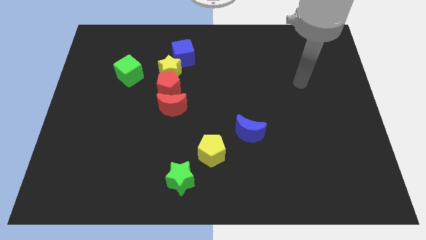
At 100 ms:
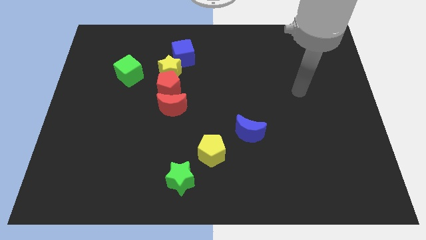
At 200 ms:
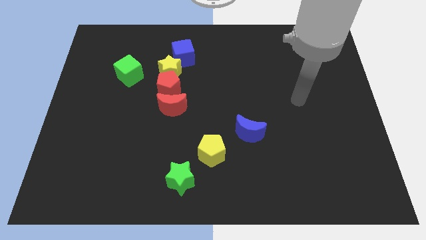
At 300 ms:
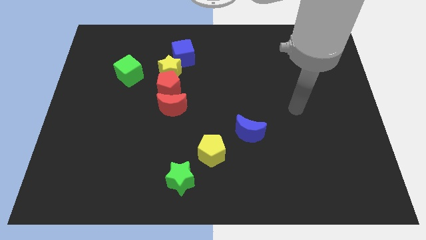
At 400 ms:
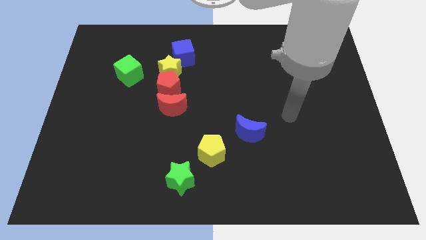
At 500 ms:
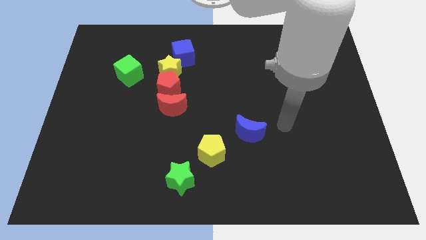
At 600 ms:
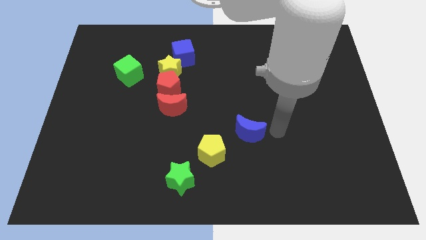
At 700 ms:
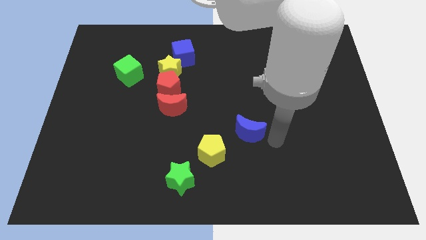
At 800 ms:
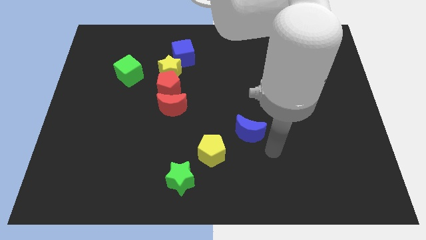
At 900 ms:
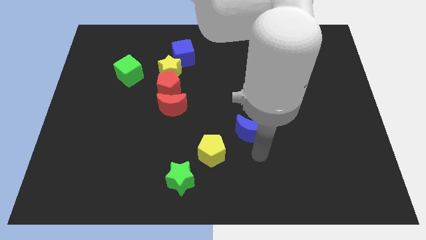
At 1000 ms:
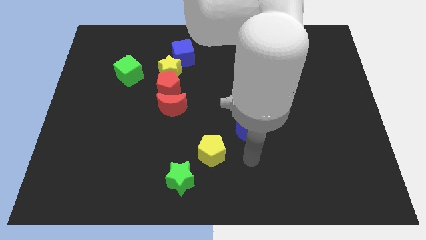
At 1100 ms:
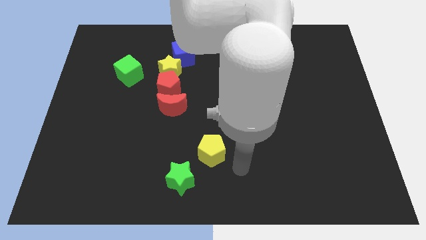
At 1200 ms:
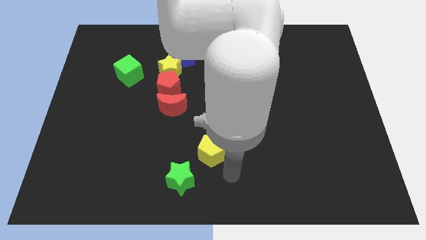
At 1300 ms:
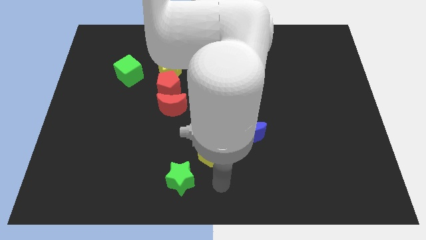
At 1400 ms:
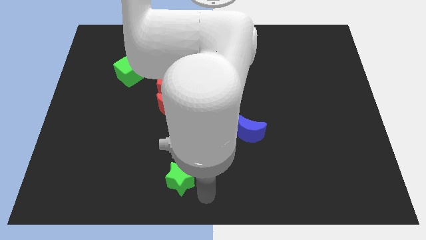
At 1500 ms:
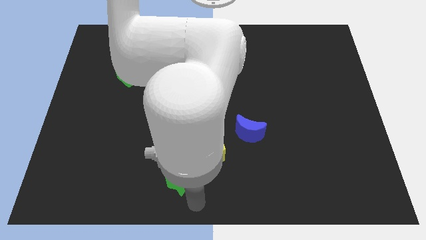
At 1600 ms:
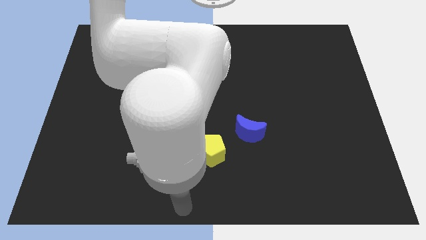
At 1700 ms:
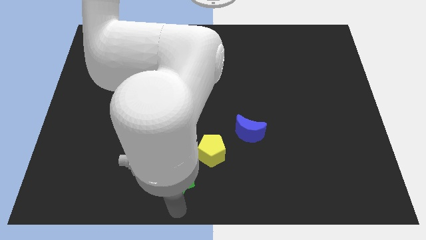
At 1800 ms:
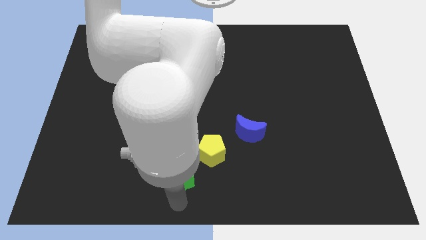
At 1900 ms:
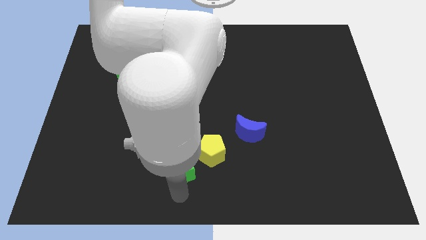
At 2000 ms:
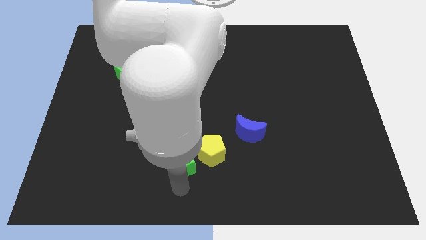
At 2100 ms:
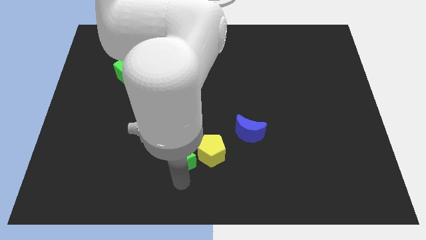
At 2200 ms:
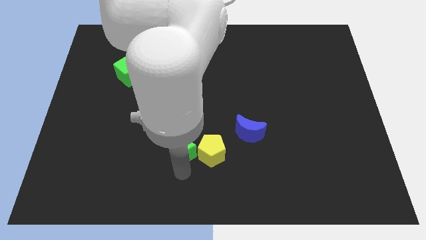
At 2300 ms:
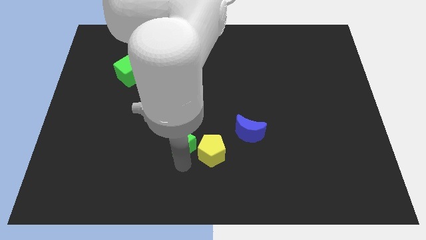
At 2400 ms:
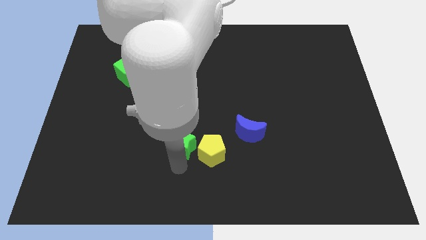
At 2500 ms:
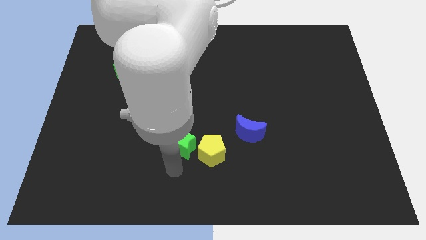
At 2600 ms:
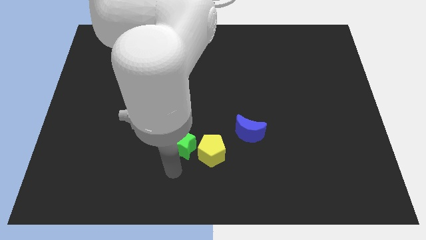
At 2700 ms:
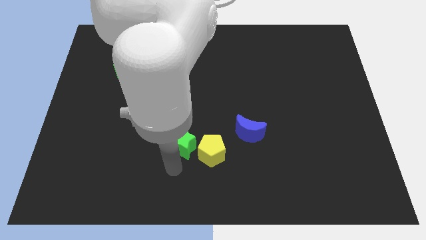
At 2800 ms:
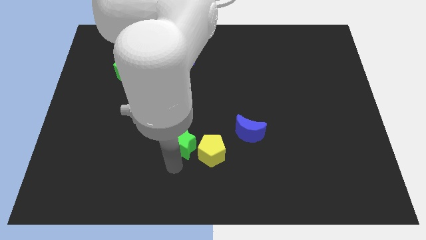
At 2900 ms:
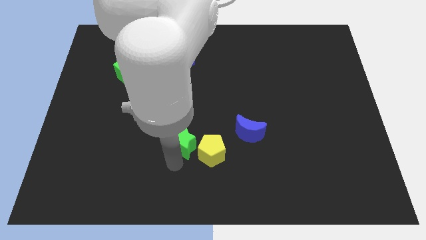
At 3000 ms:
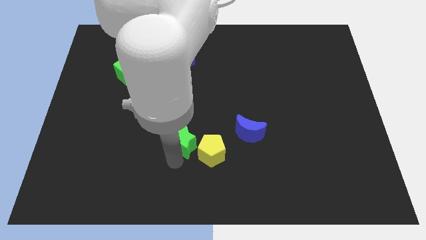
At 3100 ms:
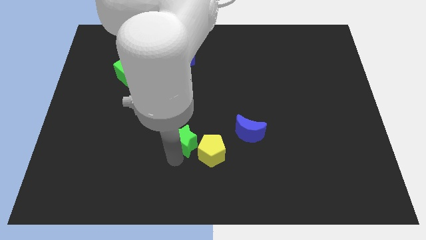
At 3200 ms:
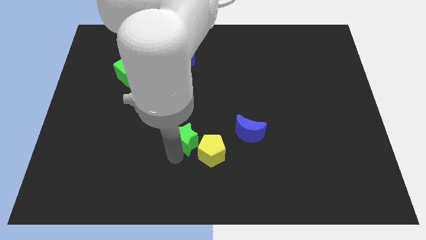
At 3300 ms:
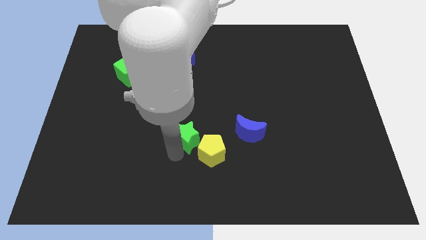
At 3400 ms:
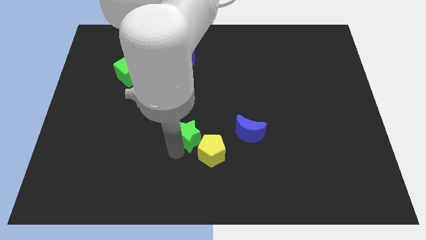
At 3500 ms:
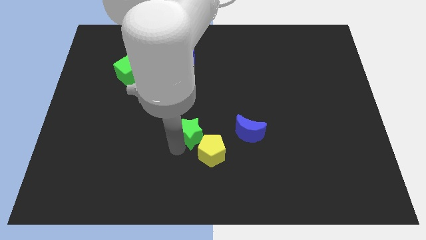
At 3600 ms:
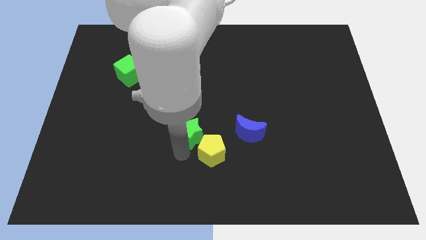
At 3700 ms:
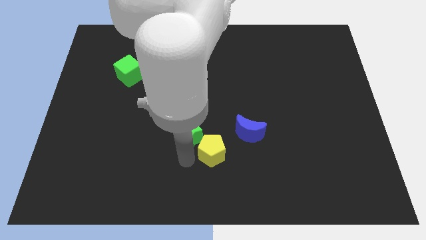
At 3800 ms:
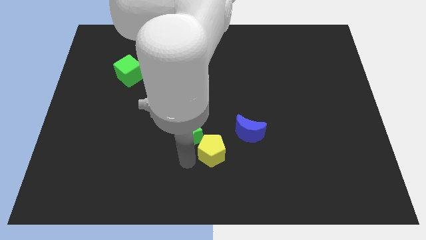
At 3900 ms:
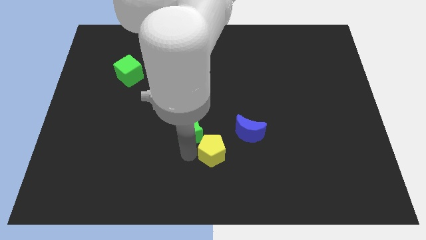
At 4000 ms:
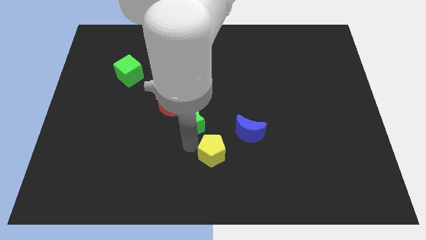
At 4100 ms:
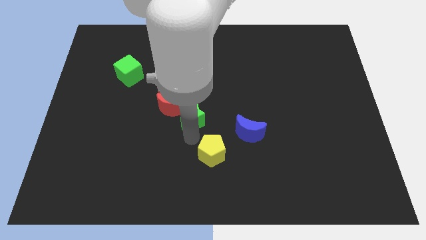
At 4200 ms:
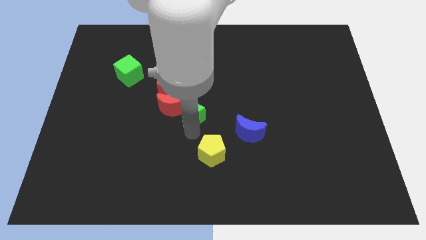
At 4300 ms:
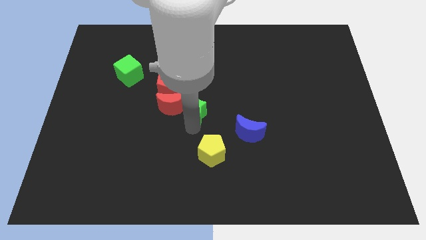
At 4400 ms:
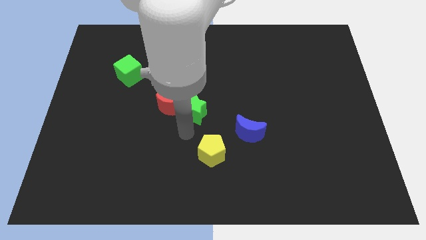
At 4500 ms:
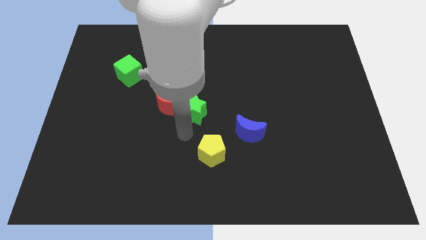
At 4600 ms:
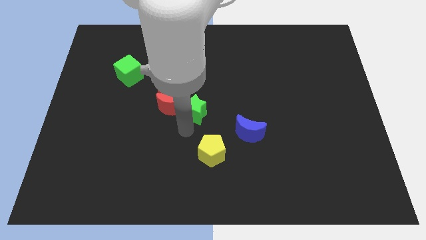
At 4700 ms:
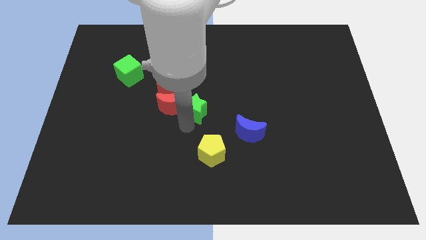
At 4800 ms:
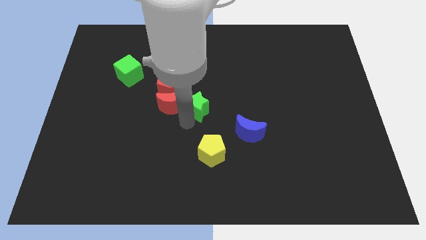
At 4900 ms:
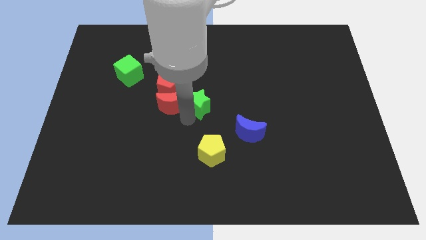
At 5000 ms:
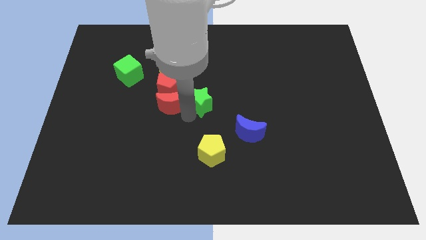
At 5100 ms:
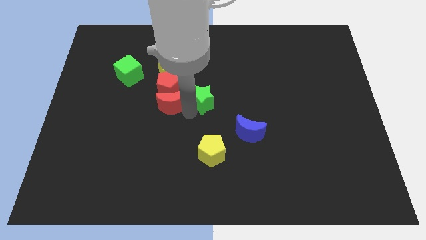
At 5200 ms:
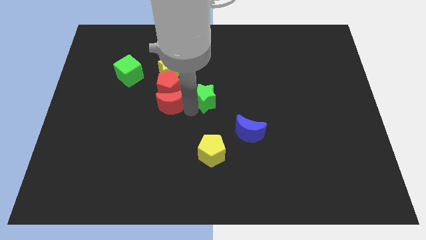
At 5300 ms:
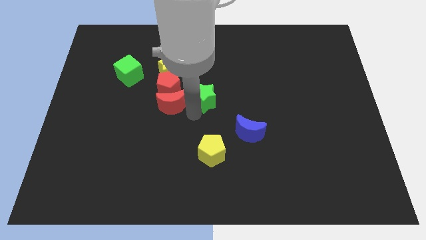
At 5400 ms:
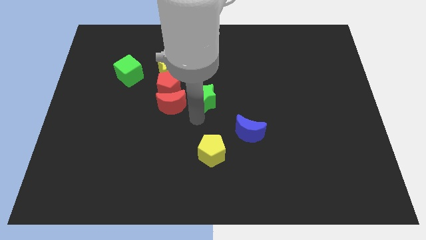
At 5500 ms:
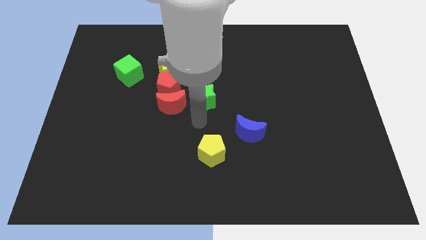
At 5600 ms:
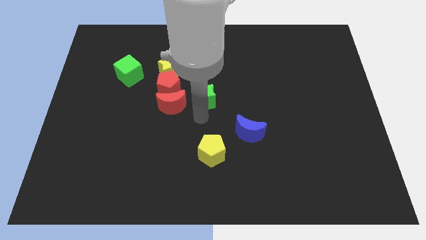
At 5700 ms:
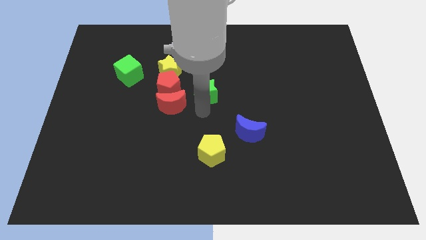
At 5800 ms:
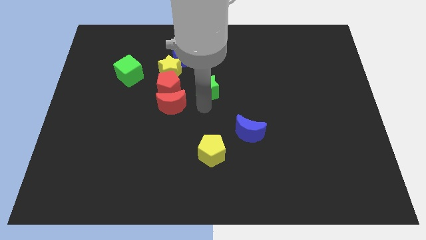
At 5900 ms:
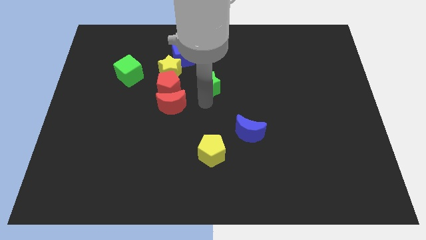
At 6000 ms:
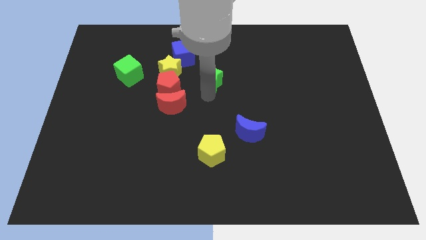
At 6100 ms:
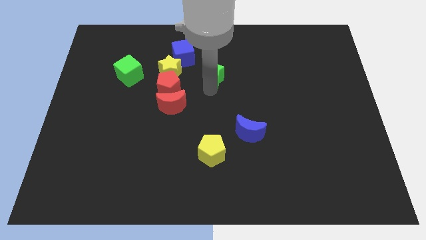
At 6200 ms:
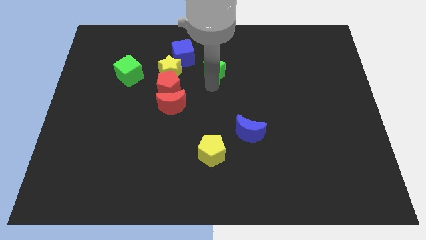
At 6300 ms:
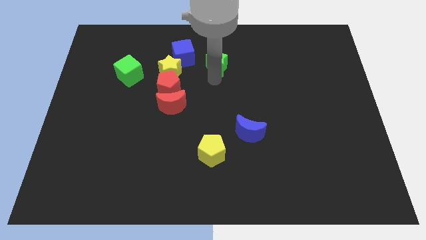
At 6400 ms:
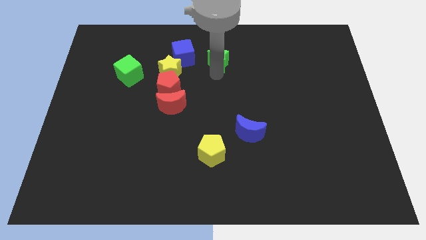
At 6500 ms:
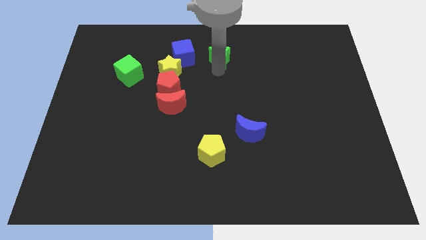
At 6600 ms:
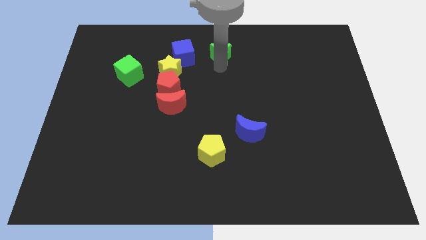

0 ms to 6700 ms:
move the green star to the towards your base
